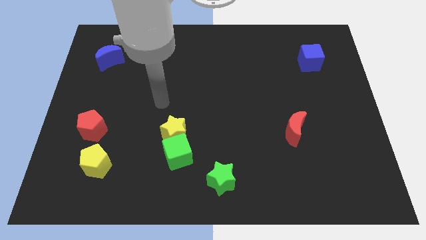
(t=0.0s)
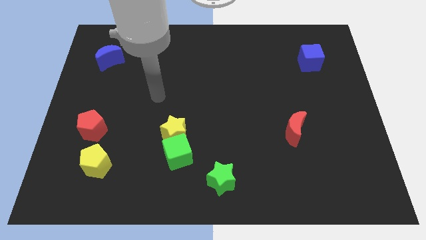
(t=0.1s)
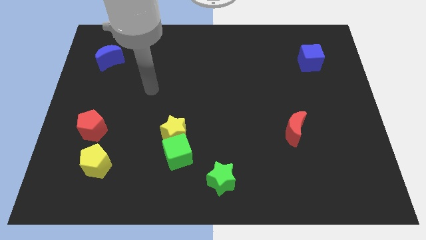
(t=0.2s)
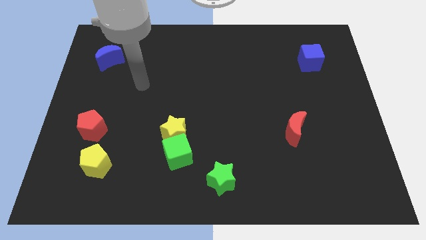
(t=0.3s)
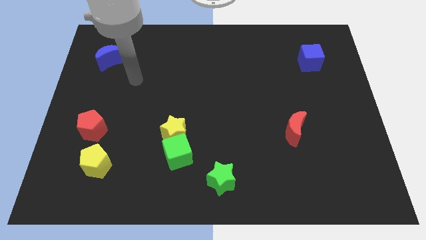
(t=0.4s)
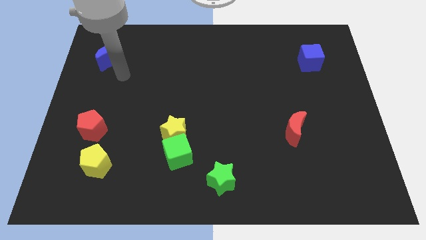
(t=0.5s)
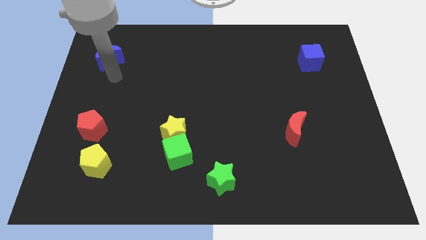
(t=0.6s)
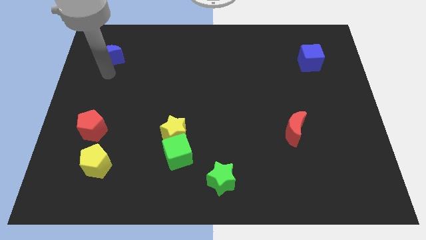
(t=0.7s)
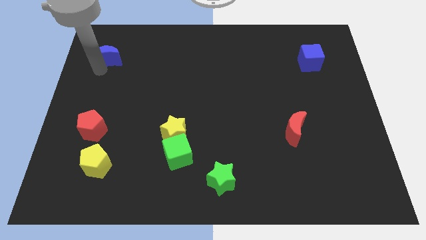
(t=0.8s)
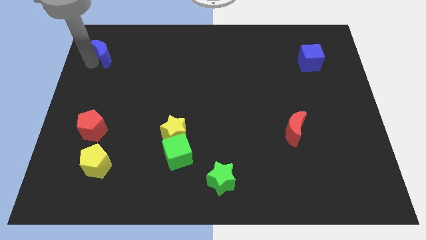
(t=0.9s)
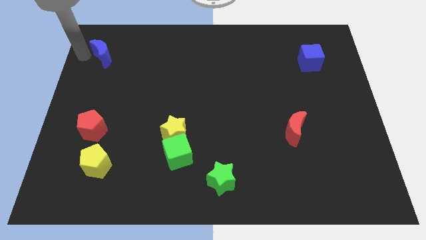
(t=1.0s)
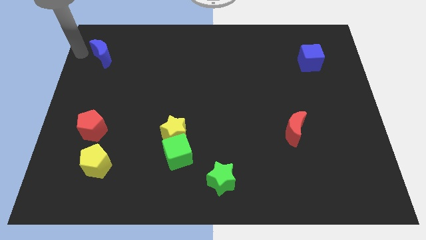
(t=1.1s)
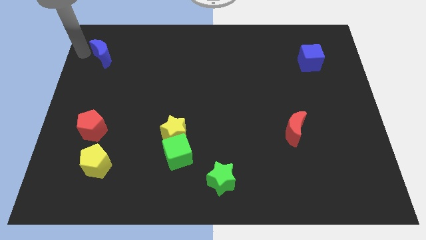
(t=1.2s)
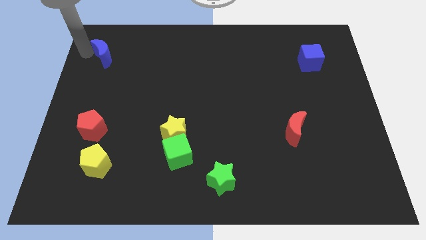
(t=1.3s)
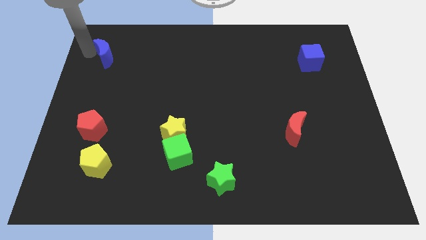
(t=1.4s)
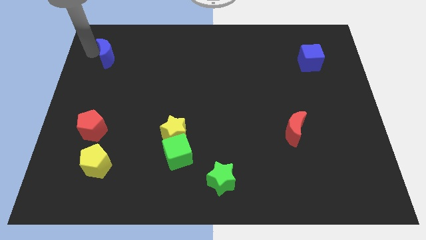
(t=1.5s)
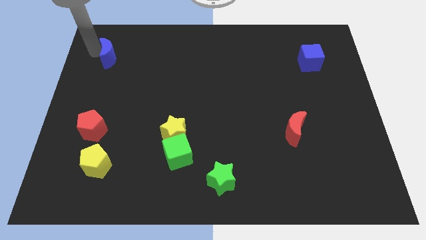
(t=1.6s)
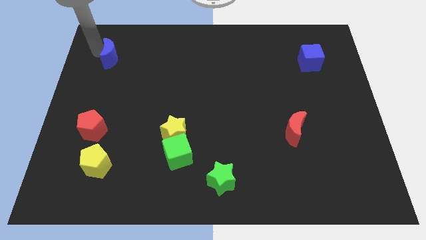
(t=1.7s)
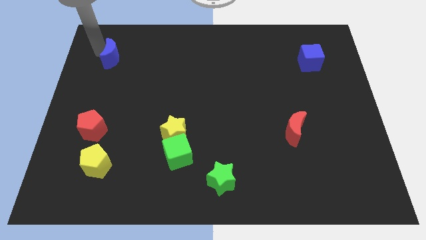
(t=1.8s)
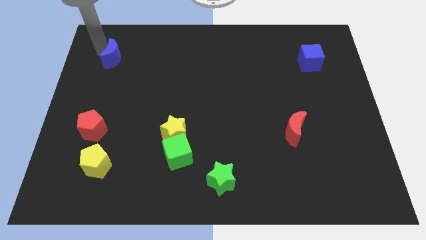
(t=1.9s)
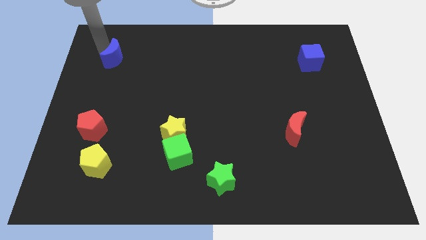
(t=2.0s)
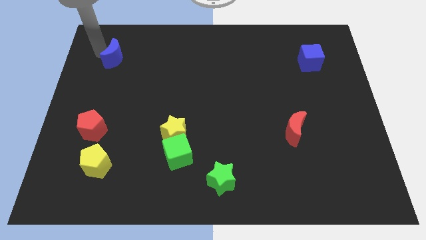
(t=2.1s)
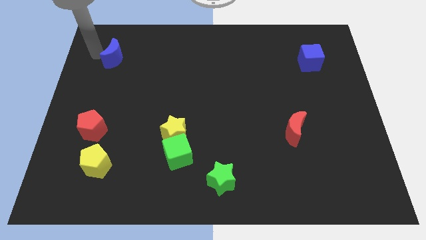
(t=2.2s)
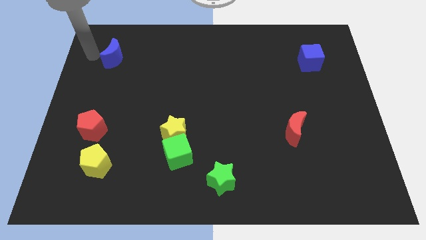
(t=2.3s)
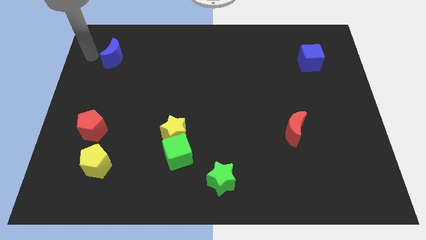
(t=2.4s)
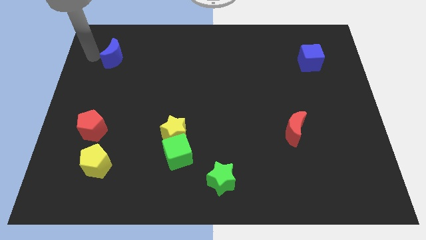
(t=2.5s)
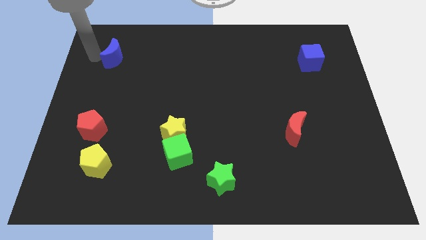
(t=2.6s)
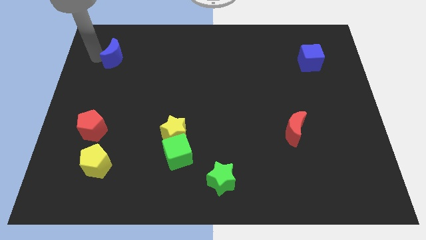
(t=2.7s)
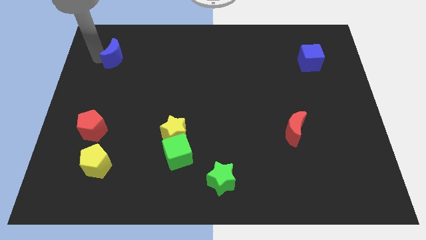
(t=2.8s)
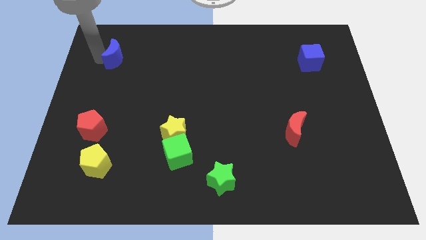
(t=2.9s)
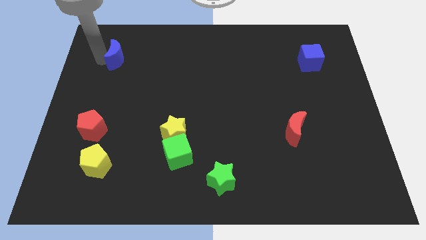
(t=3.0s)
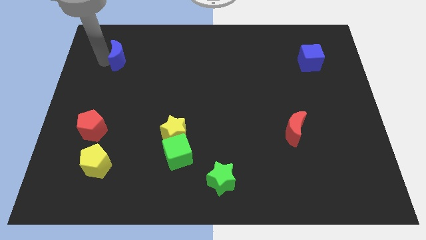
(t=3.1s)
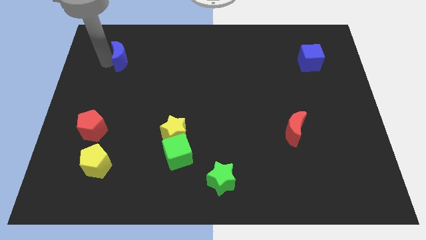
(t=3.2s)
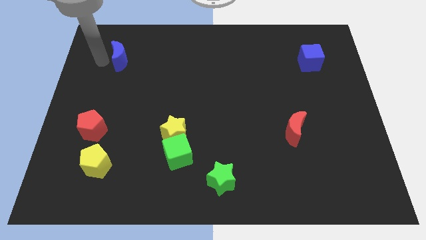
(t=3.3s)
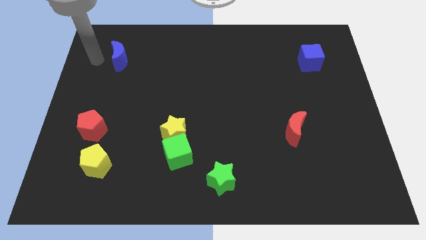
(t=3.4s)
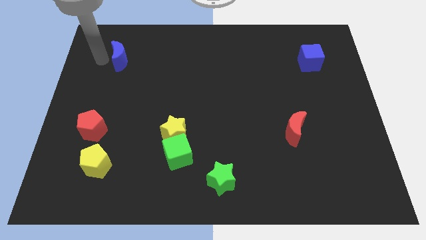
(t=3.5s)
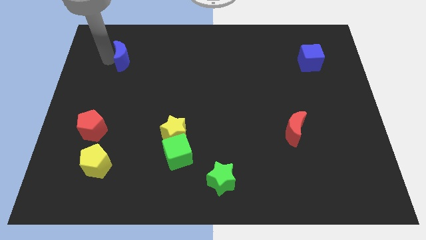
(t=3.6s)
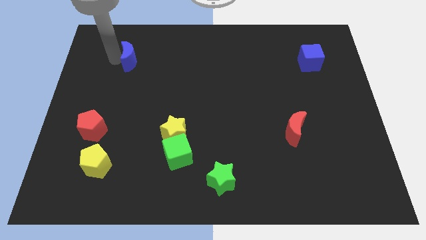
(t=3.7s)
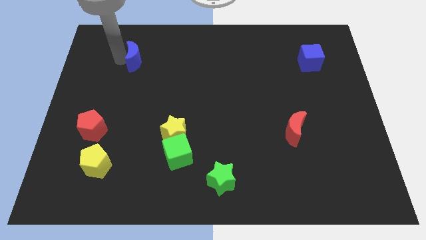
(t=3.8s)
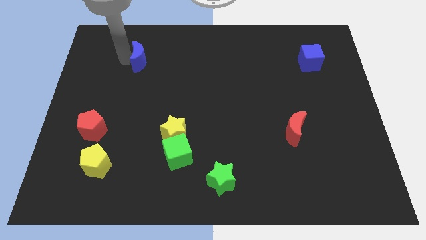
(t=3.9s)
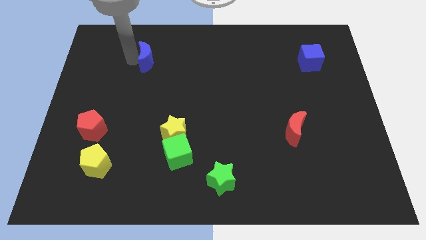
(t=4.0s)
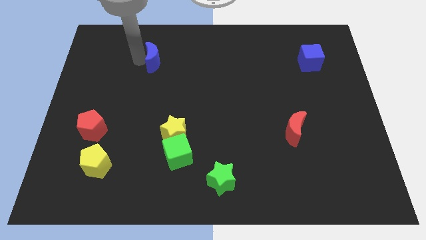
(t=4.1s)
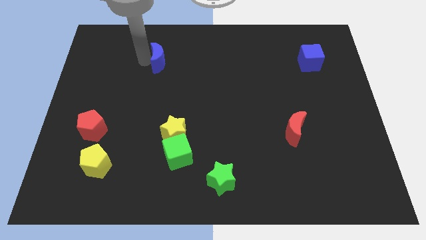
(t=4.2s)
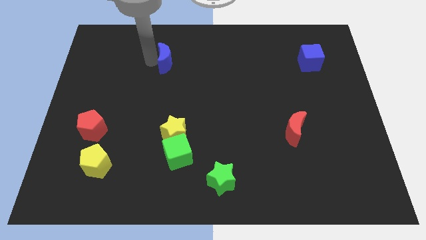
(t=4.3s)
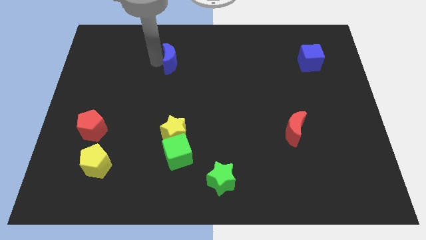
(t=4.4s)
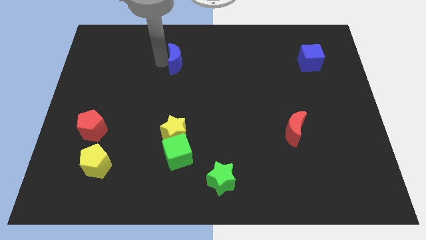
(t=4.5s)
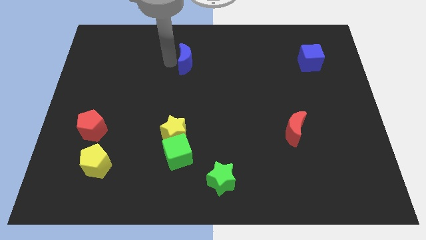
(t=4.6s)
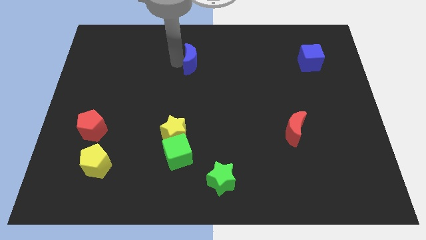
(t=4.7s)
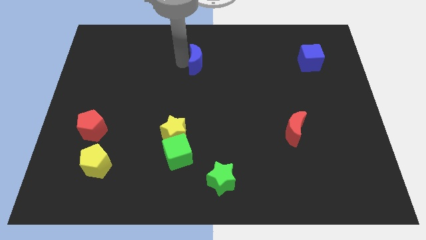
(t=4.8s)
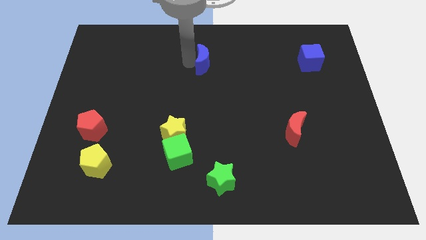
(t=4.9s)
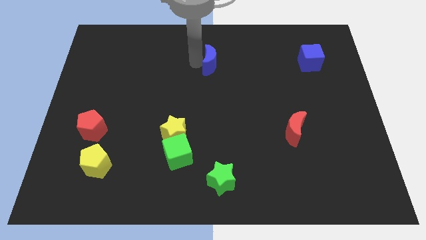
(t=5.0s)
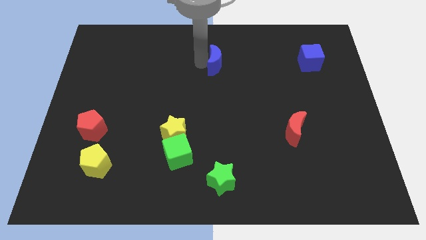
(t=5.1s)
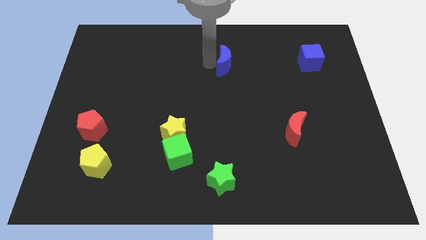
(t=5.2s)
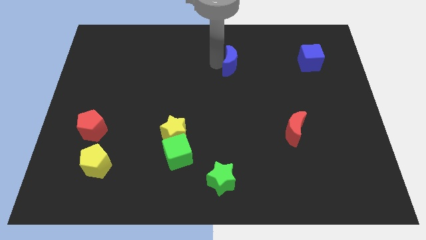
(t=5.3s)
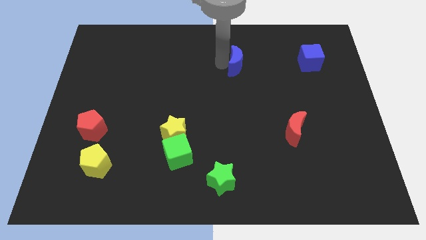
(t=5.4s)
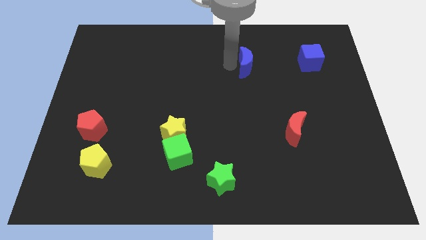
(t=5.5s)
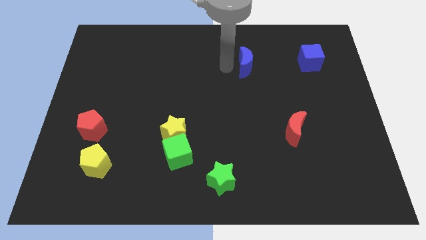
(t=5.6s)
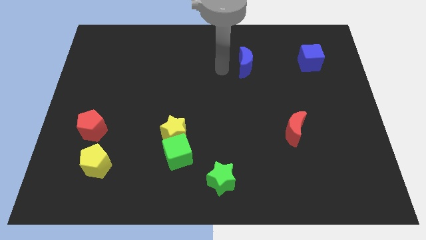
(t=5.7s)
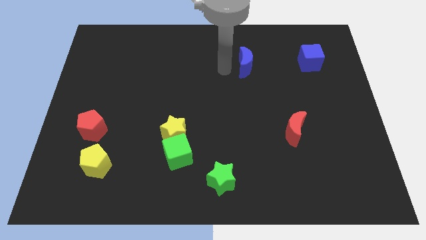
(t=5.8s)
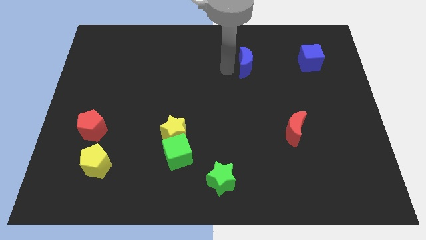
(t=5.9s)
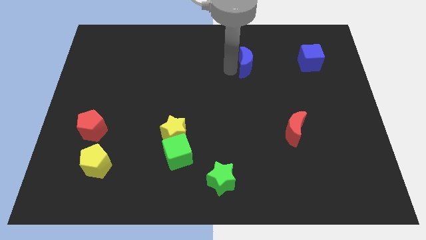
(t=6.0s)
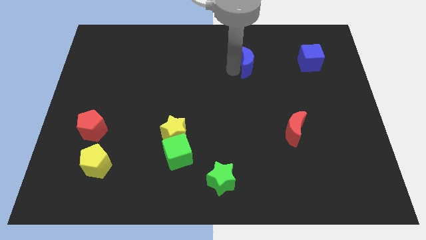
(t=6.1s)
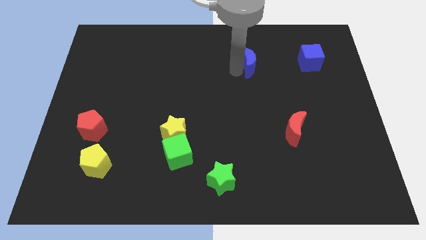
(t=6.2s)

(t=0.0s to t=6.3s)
put the blue moon left of the blue cube

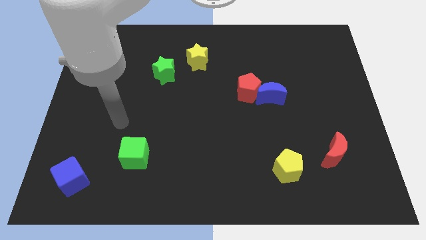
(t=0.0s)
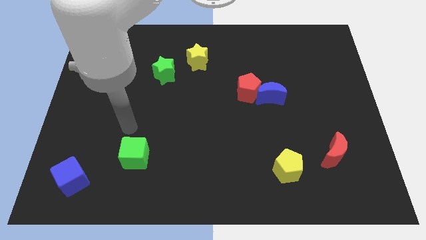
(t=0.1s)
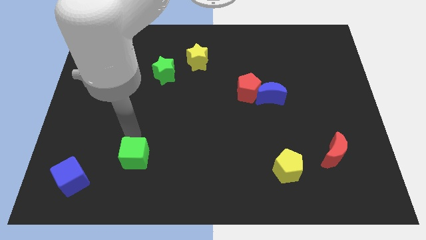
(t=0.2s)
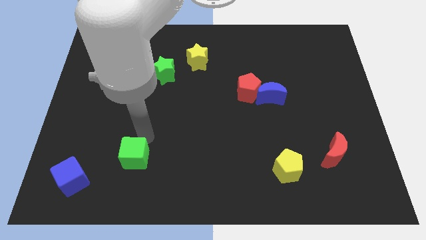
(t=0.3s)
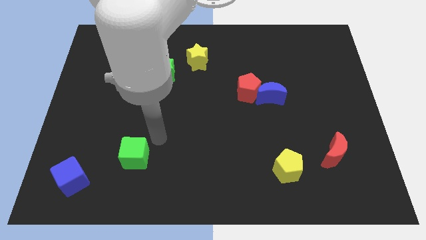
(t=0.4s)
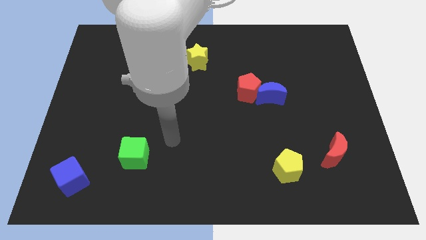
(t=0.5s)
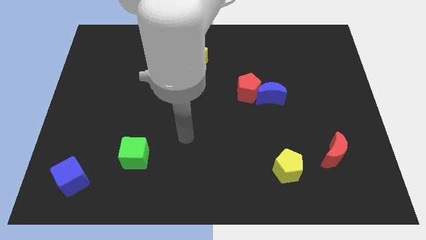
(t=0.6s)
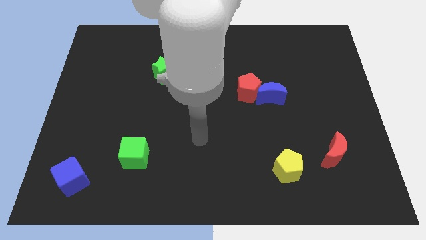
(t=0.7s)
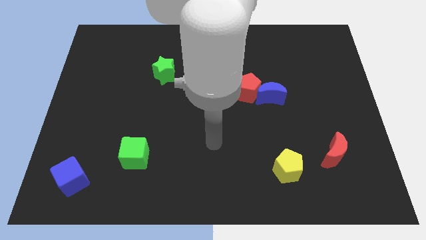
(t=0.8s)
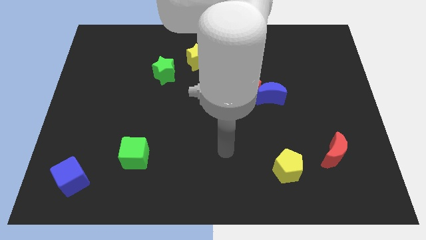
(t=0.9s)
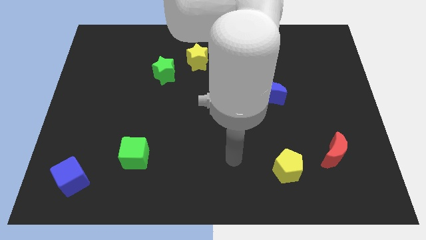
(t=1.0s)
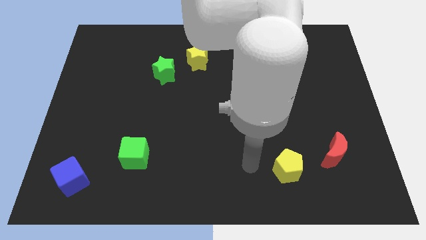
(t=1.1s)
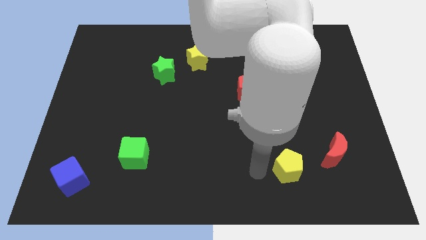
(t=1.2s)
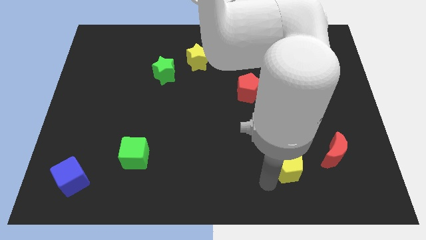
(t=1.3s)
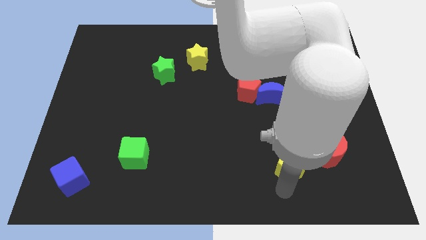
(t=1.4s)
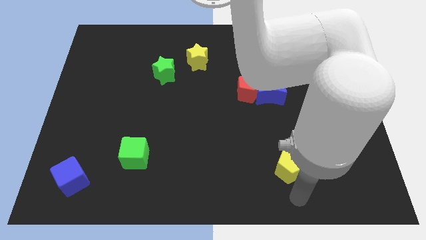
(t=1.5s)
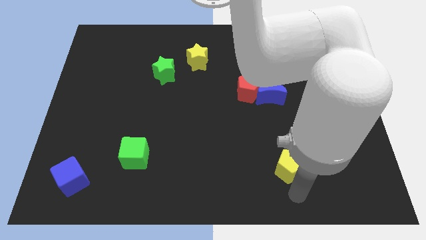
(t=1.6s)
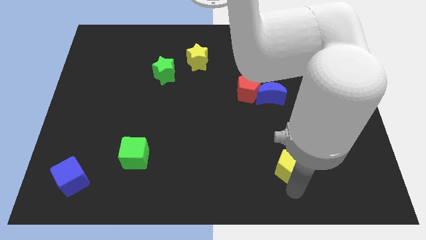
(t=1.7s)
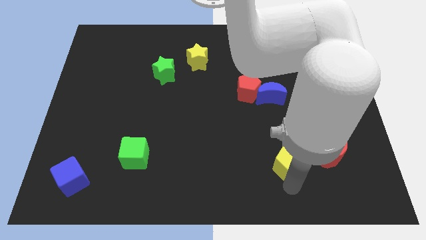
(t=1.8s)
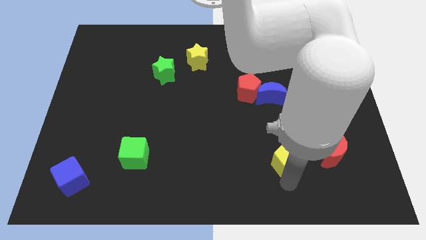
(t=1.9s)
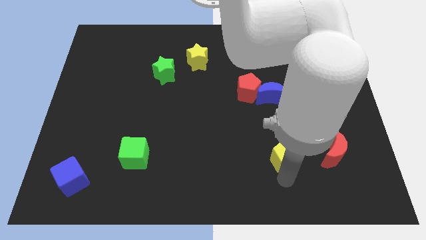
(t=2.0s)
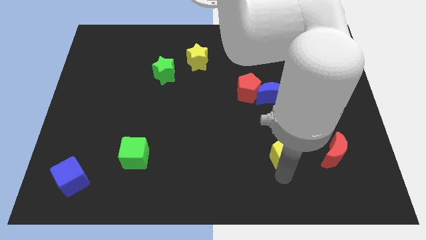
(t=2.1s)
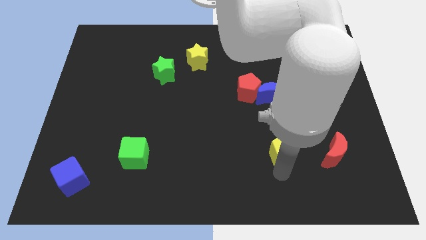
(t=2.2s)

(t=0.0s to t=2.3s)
slide the yellow pentagon to the bottom of the blue moon
